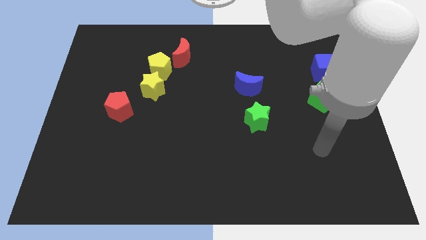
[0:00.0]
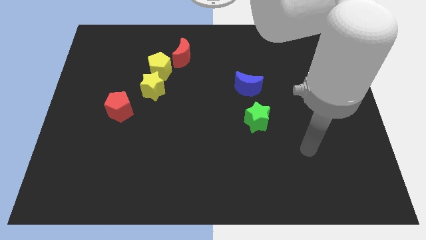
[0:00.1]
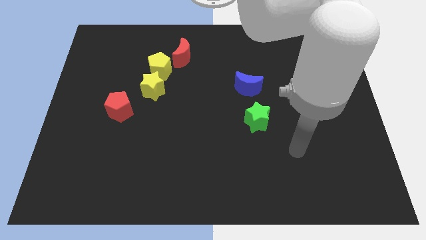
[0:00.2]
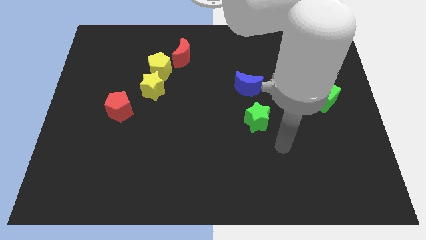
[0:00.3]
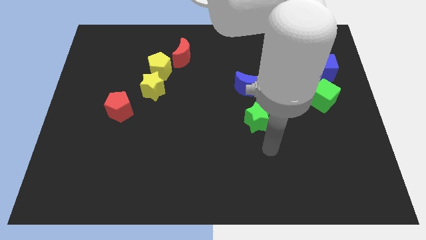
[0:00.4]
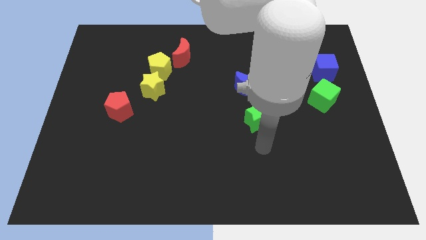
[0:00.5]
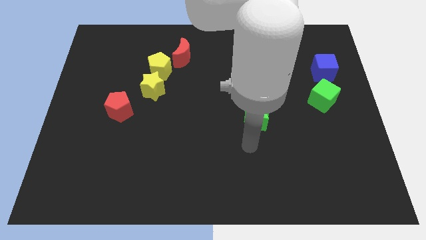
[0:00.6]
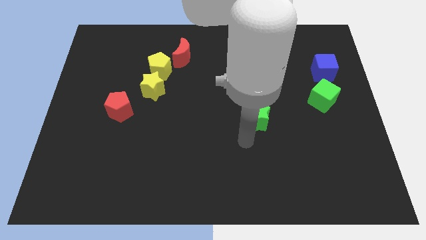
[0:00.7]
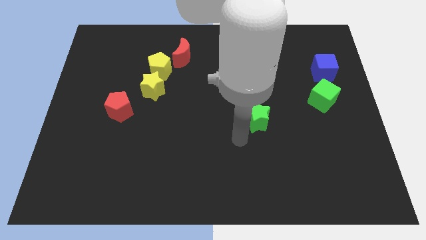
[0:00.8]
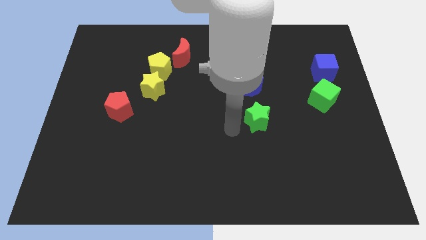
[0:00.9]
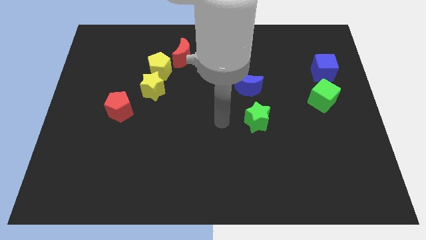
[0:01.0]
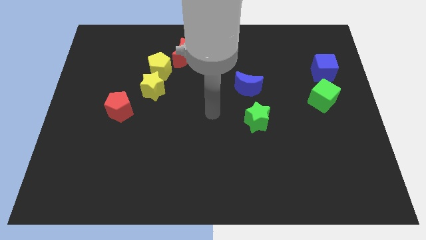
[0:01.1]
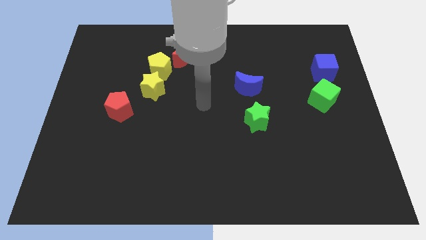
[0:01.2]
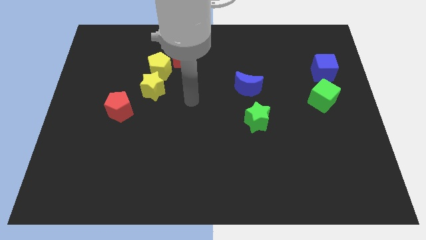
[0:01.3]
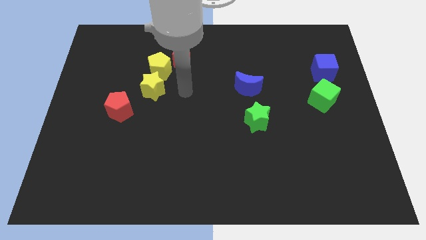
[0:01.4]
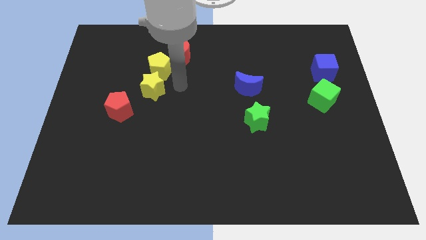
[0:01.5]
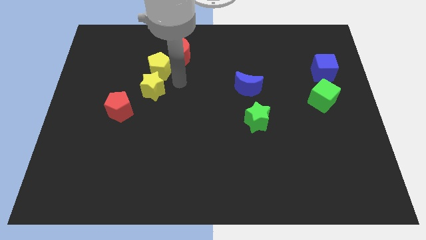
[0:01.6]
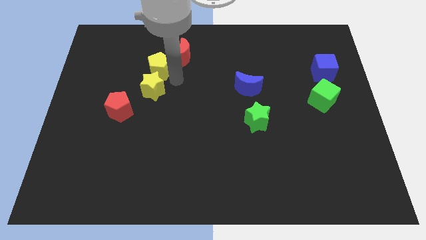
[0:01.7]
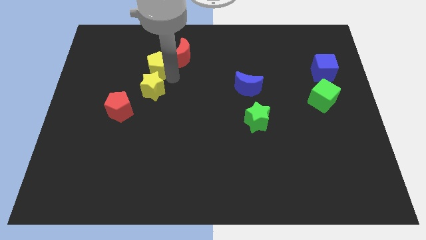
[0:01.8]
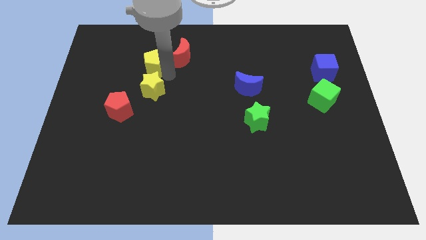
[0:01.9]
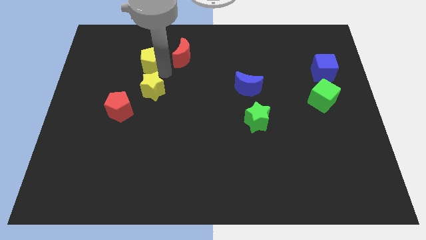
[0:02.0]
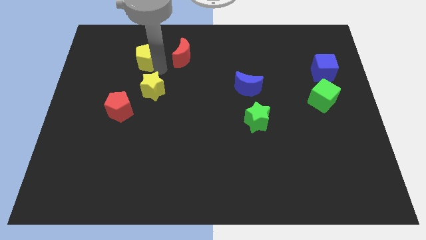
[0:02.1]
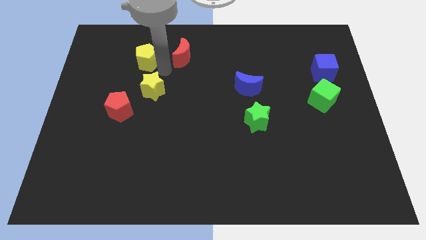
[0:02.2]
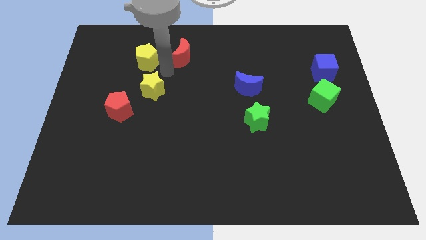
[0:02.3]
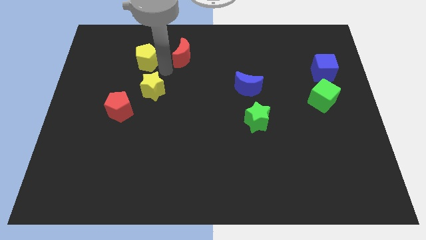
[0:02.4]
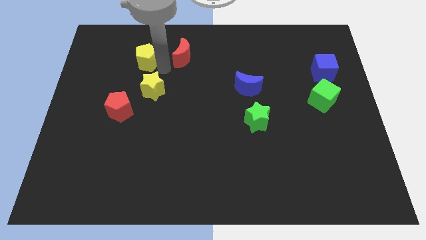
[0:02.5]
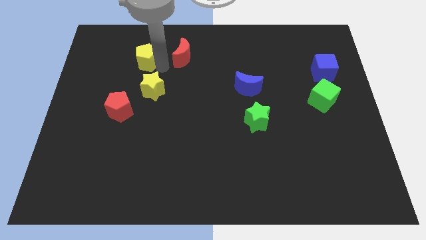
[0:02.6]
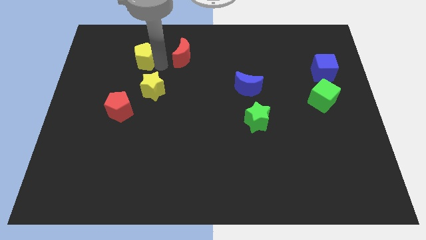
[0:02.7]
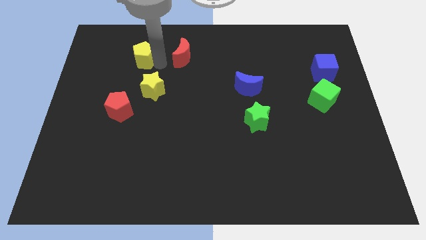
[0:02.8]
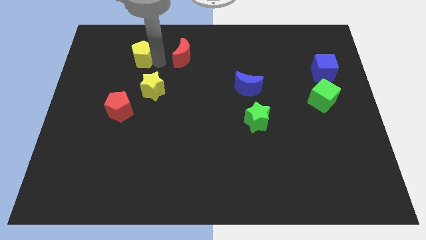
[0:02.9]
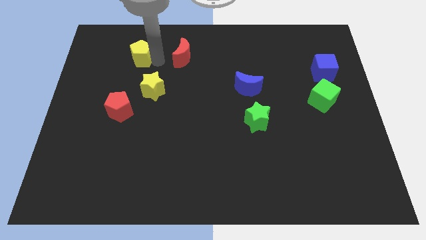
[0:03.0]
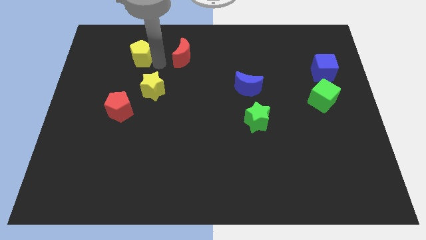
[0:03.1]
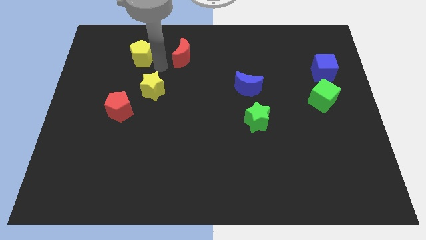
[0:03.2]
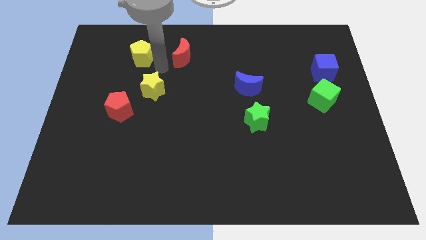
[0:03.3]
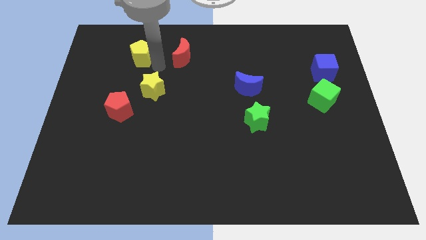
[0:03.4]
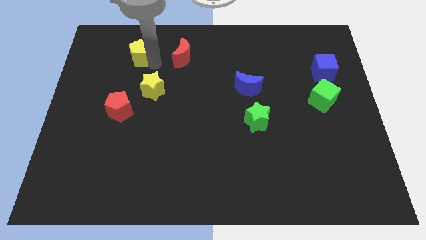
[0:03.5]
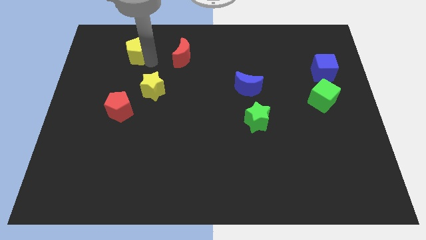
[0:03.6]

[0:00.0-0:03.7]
separate the yellow pentagon from the yellow star and red moon

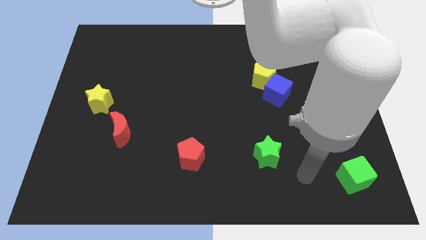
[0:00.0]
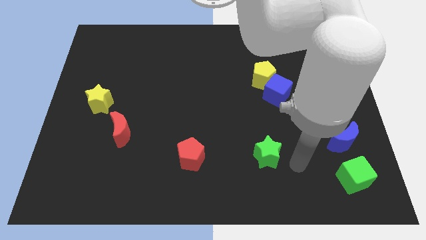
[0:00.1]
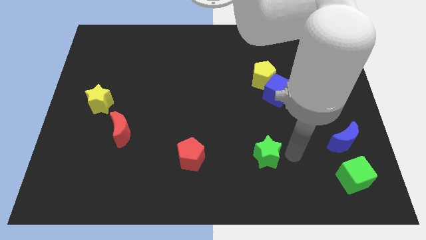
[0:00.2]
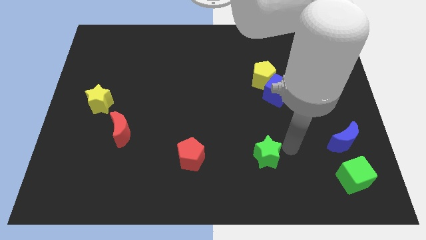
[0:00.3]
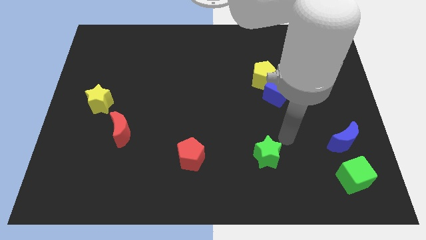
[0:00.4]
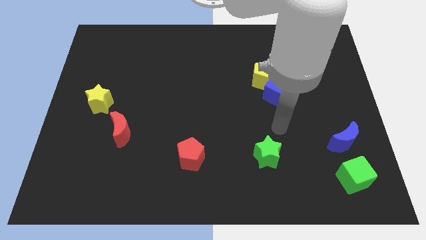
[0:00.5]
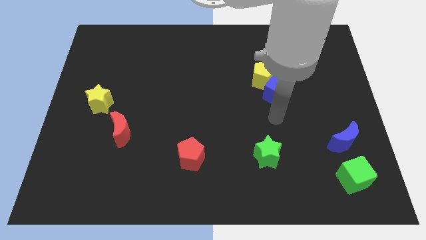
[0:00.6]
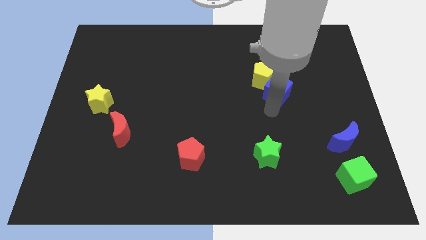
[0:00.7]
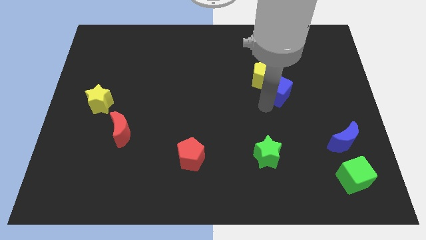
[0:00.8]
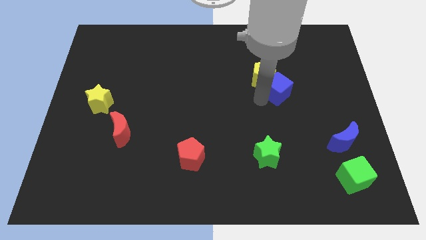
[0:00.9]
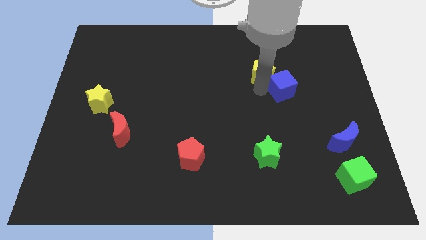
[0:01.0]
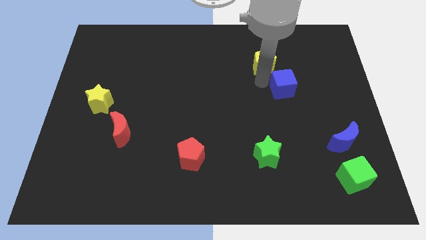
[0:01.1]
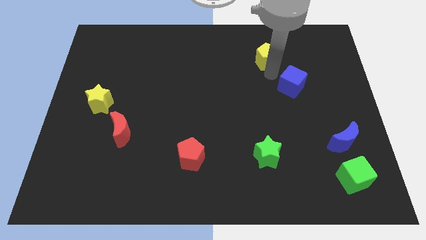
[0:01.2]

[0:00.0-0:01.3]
separate the blue cube from the yellow pentagon

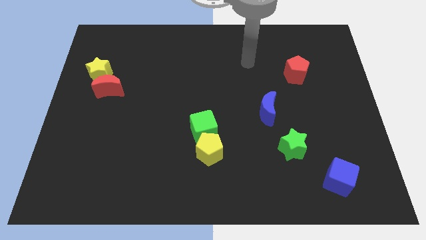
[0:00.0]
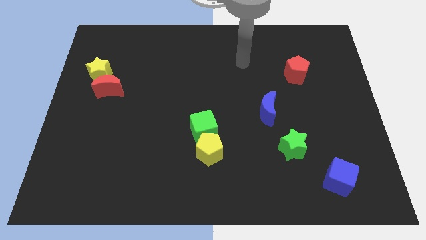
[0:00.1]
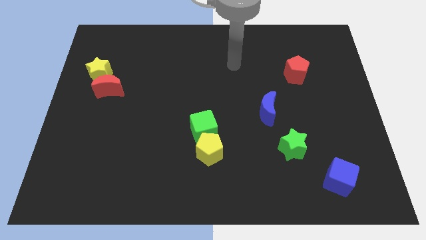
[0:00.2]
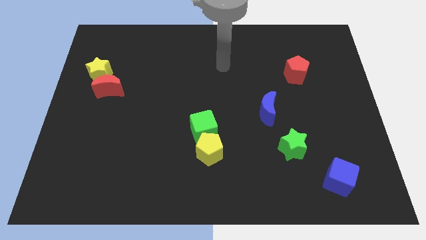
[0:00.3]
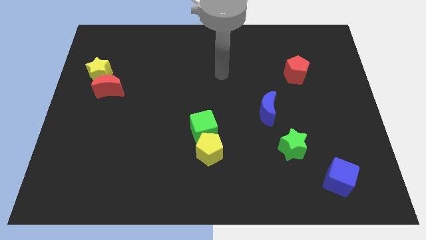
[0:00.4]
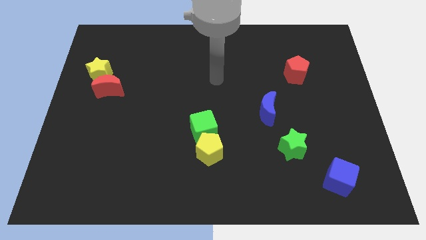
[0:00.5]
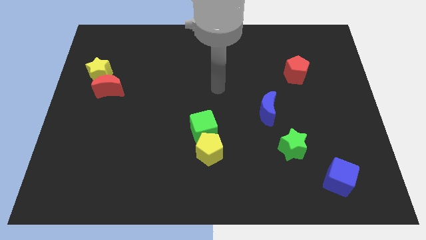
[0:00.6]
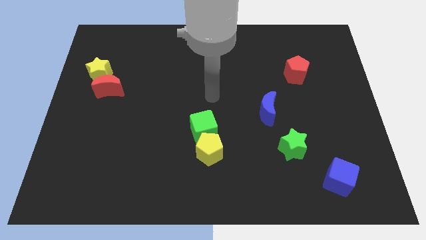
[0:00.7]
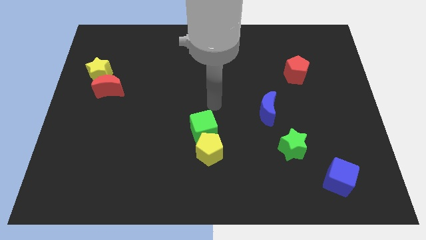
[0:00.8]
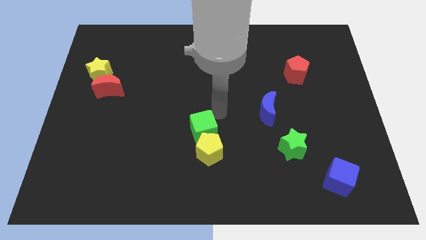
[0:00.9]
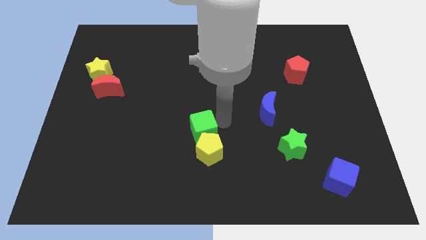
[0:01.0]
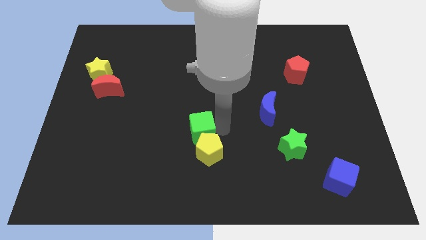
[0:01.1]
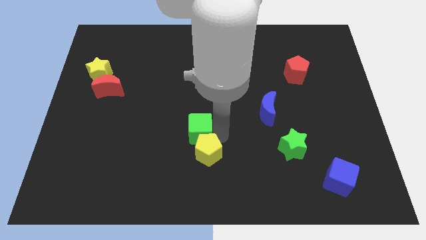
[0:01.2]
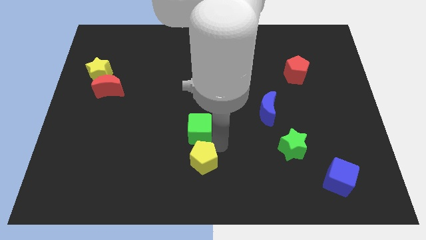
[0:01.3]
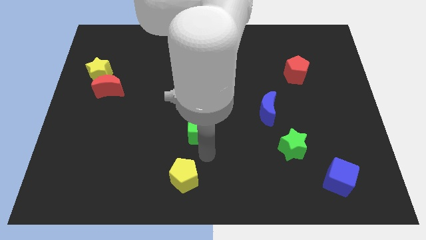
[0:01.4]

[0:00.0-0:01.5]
move the green cube away from the yellow pentagon

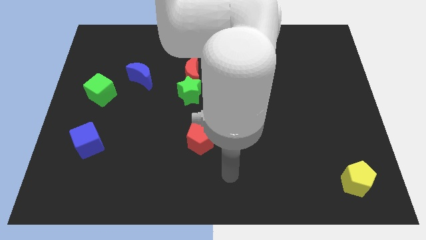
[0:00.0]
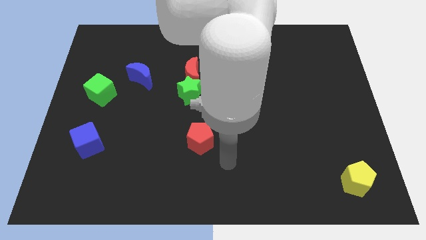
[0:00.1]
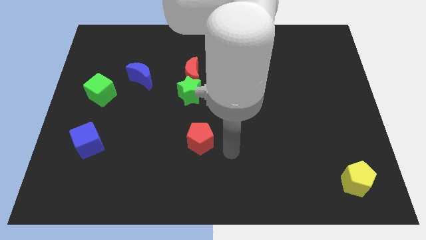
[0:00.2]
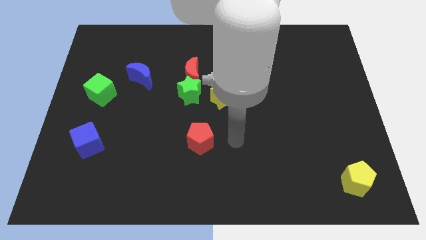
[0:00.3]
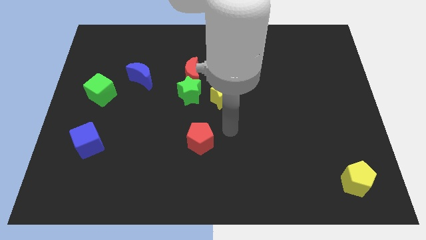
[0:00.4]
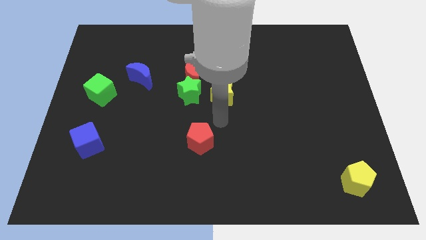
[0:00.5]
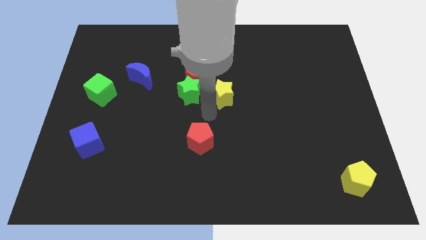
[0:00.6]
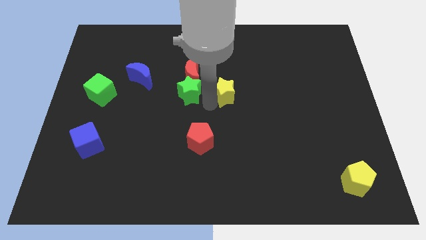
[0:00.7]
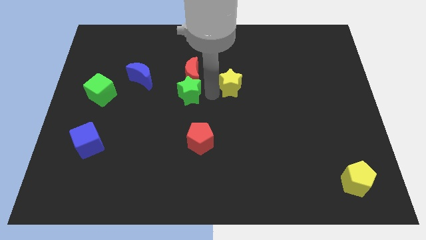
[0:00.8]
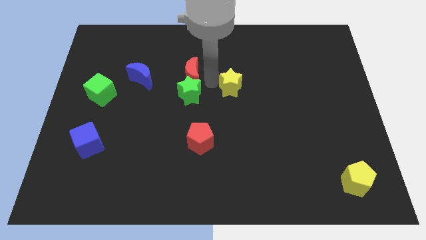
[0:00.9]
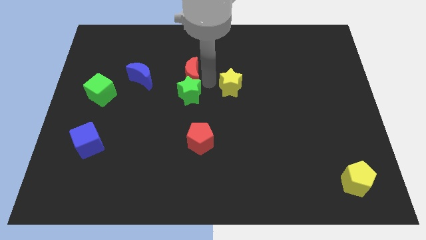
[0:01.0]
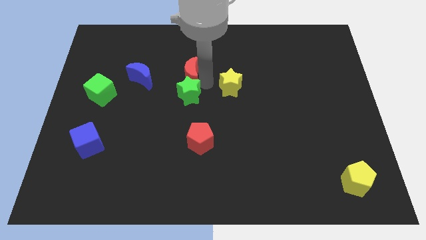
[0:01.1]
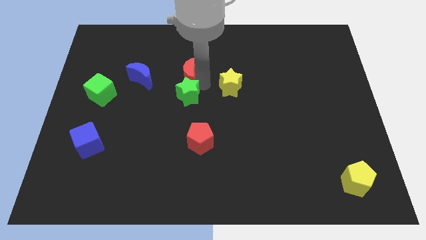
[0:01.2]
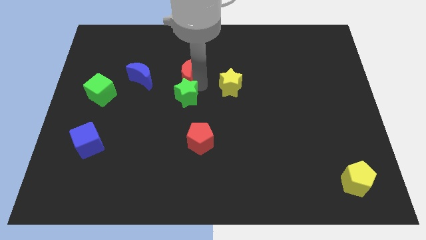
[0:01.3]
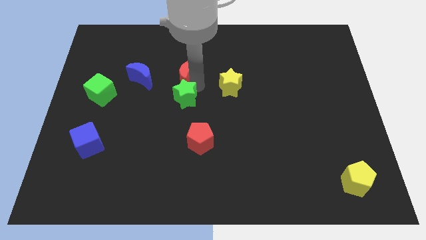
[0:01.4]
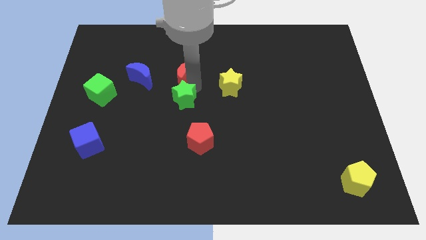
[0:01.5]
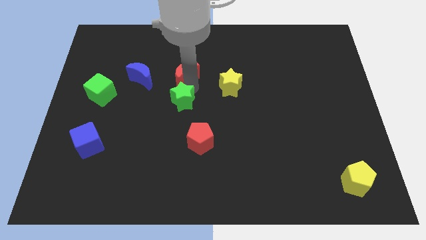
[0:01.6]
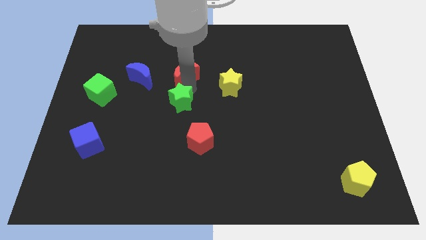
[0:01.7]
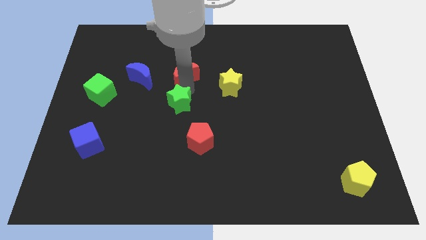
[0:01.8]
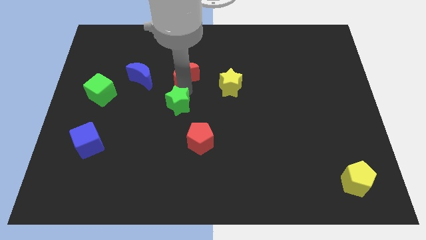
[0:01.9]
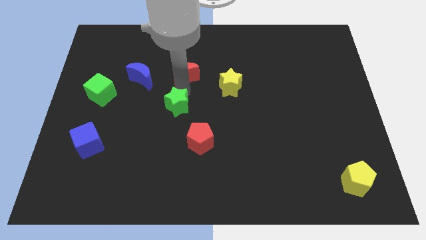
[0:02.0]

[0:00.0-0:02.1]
pull the green star apart from the red moon and yellow star

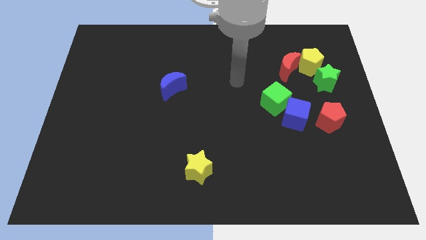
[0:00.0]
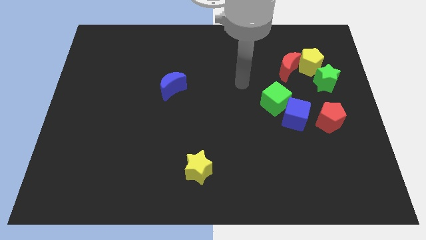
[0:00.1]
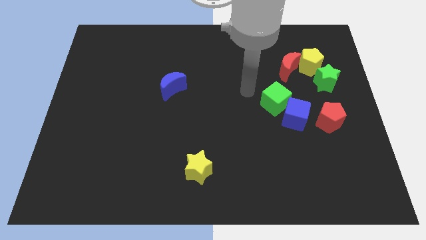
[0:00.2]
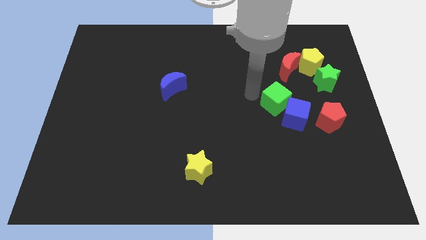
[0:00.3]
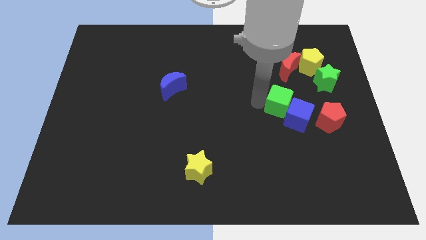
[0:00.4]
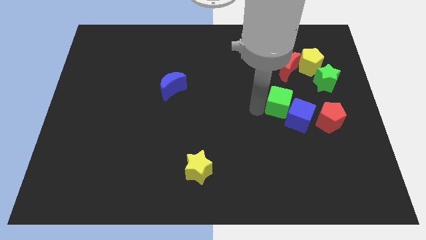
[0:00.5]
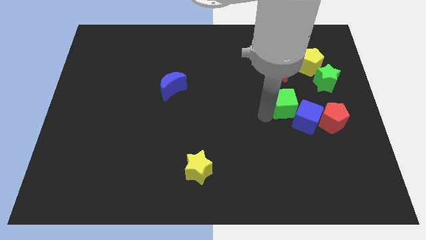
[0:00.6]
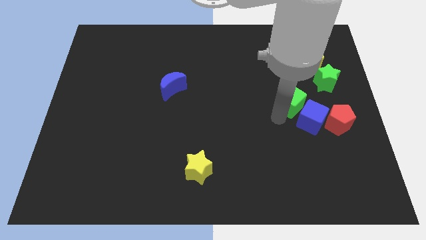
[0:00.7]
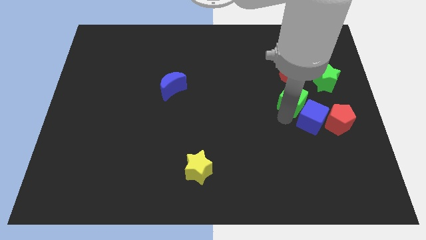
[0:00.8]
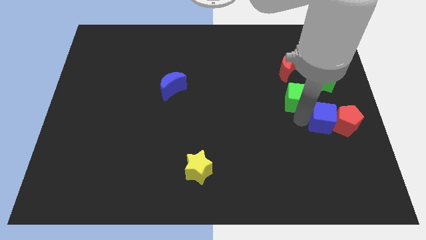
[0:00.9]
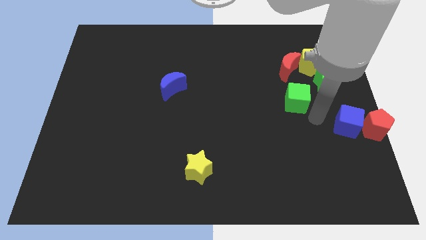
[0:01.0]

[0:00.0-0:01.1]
separate the green cube from the blue cube
